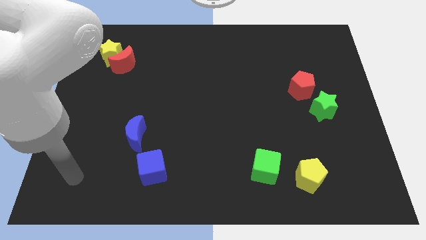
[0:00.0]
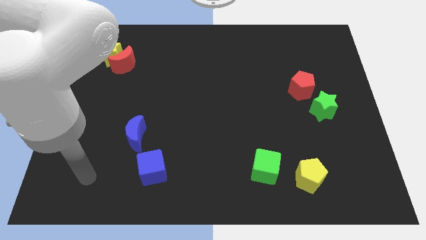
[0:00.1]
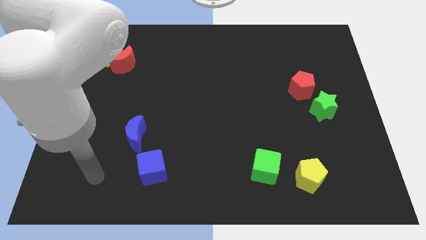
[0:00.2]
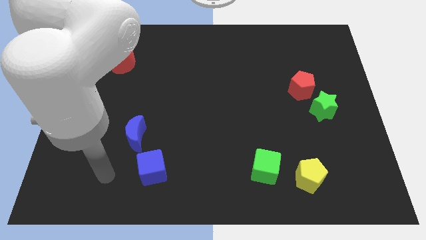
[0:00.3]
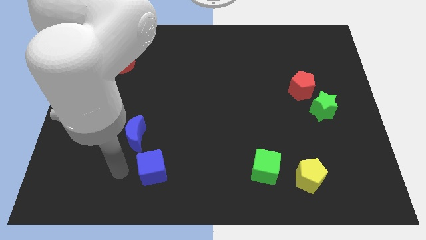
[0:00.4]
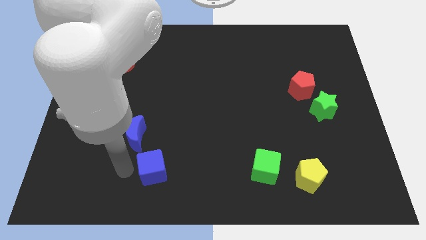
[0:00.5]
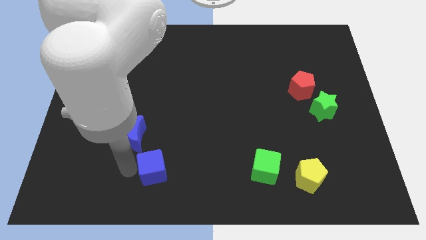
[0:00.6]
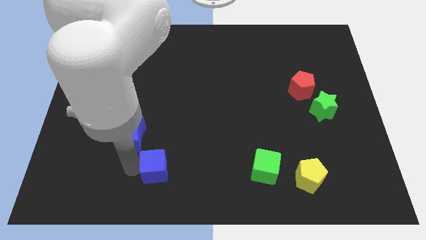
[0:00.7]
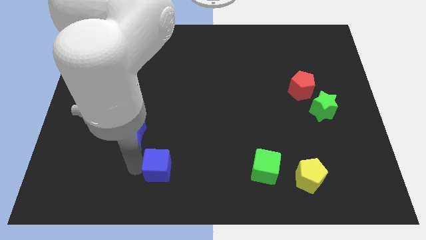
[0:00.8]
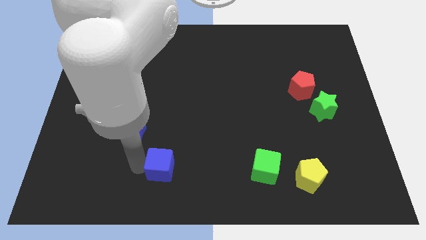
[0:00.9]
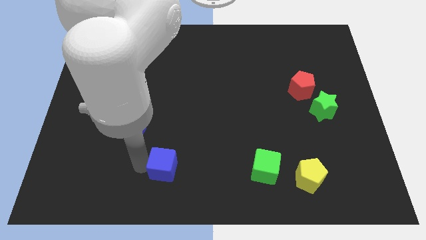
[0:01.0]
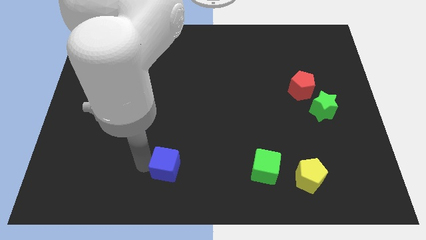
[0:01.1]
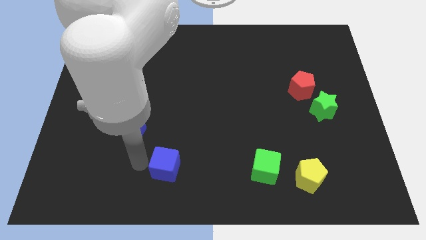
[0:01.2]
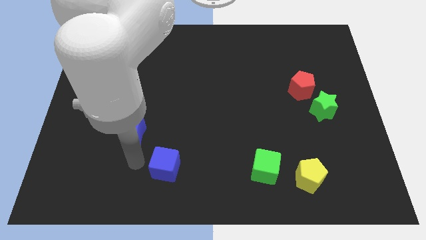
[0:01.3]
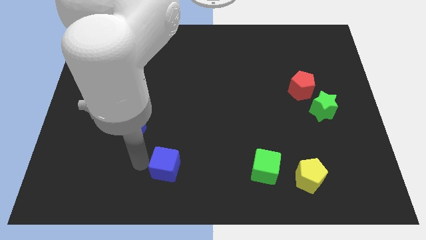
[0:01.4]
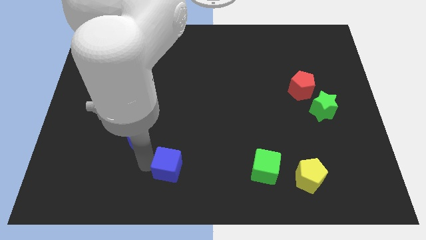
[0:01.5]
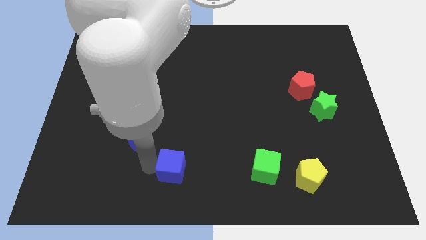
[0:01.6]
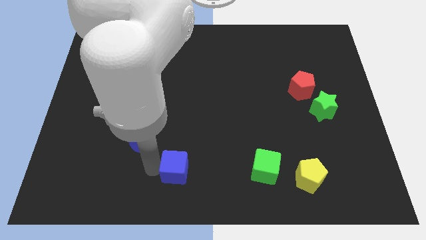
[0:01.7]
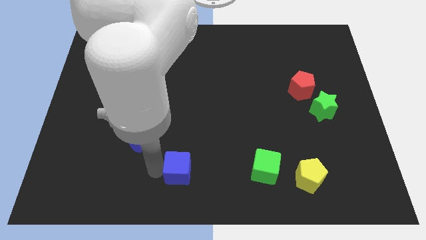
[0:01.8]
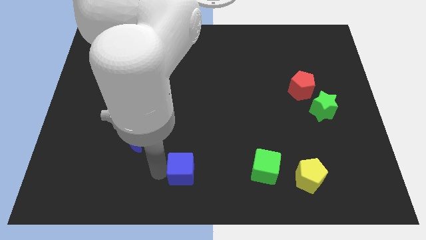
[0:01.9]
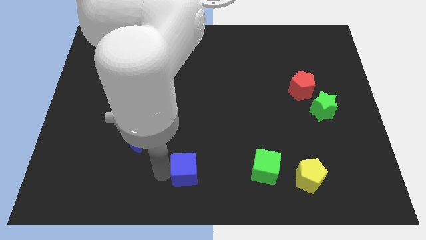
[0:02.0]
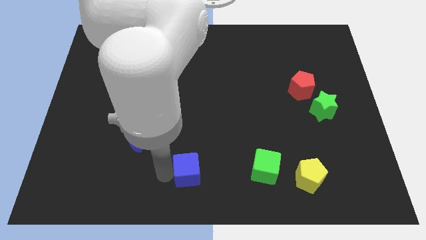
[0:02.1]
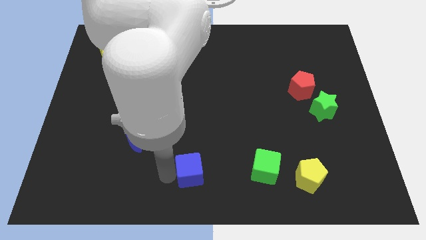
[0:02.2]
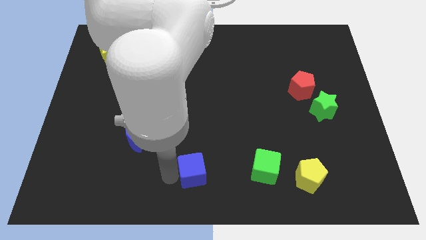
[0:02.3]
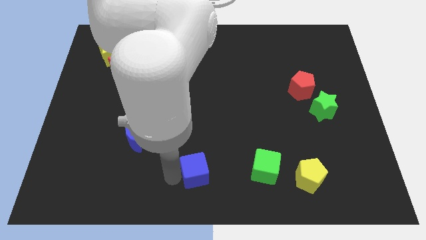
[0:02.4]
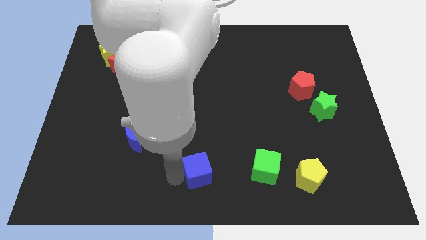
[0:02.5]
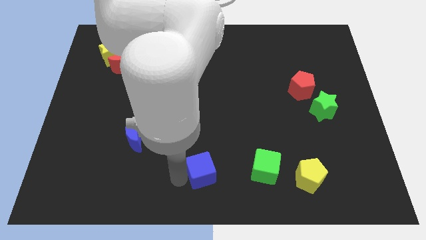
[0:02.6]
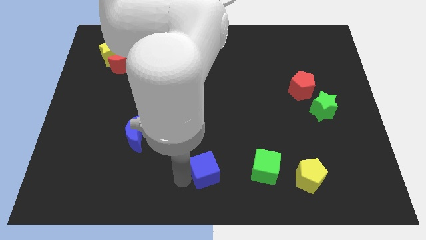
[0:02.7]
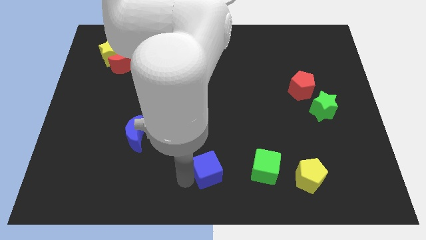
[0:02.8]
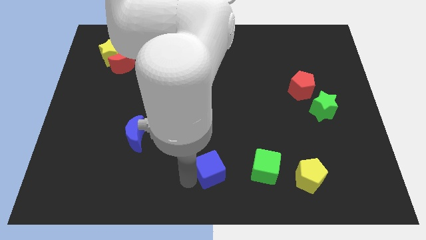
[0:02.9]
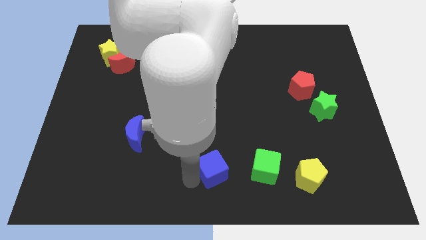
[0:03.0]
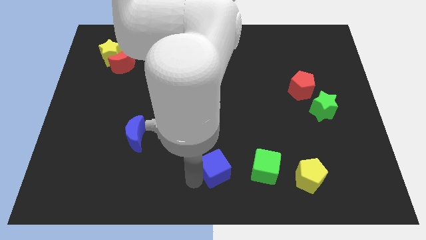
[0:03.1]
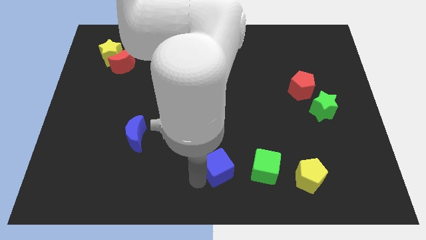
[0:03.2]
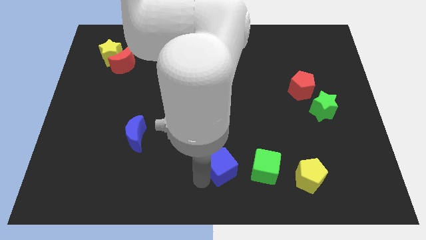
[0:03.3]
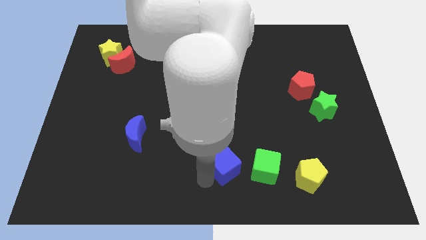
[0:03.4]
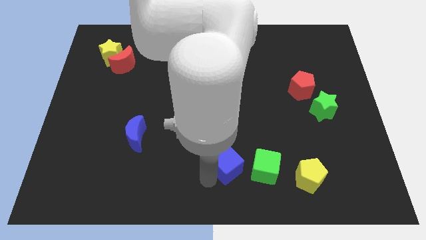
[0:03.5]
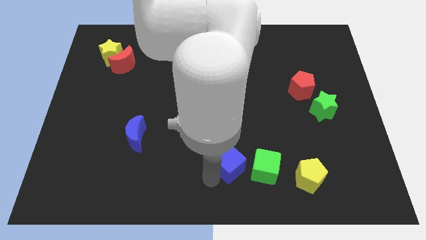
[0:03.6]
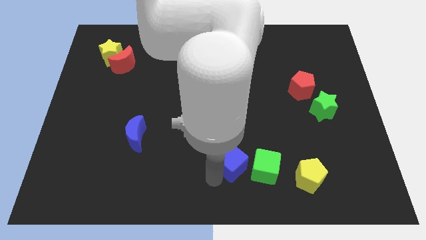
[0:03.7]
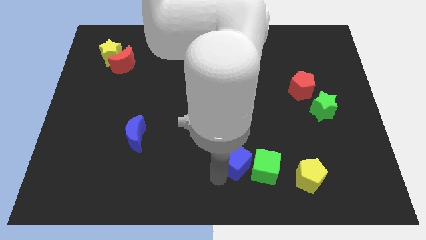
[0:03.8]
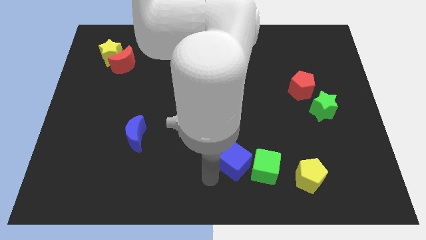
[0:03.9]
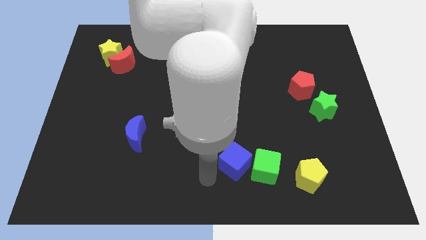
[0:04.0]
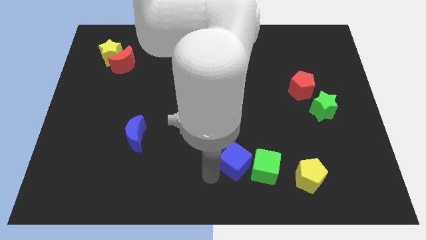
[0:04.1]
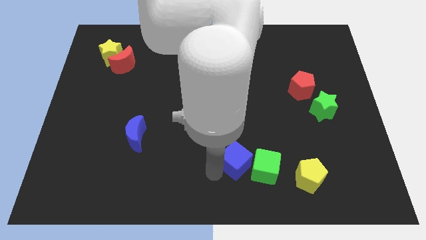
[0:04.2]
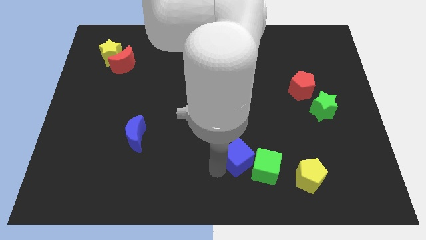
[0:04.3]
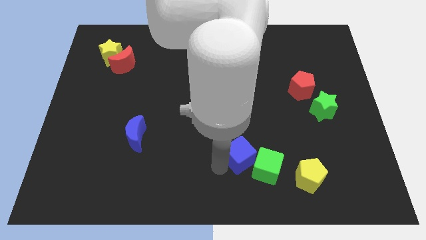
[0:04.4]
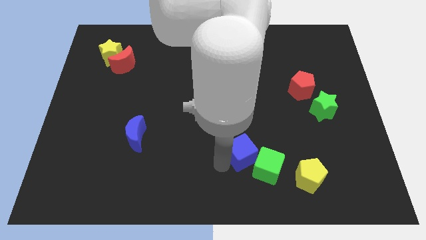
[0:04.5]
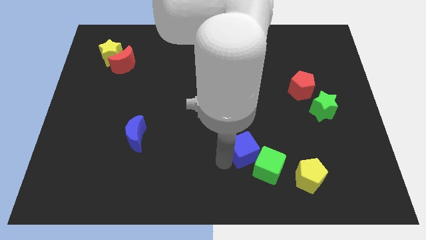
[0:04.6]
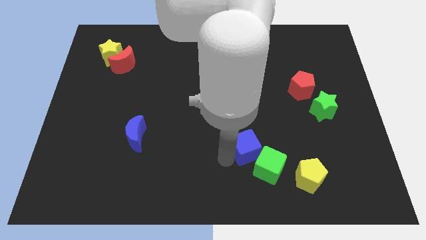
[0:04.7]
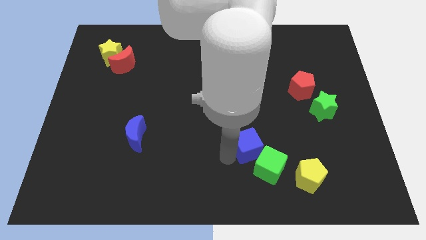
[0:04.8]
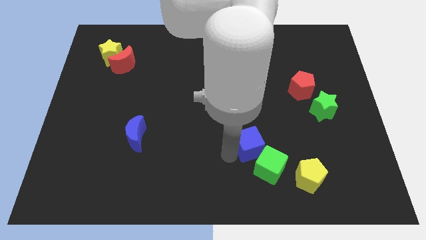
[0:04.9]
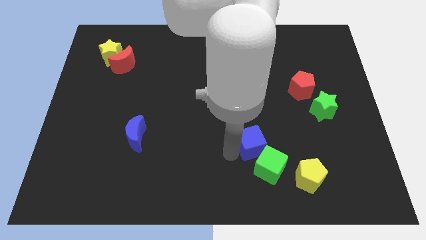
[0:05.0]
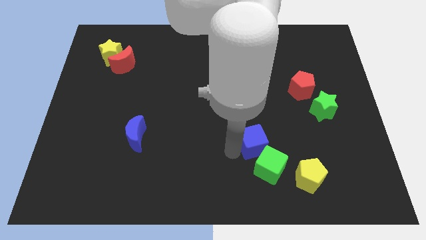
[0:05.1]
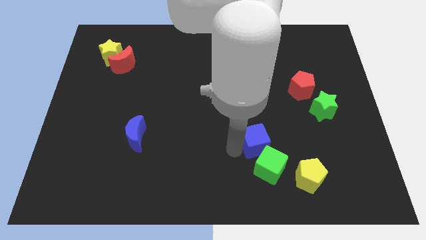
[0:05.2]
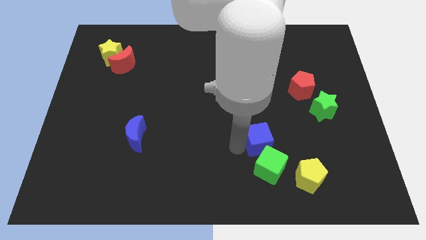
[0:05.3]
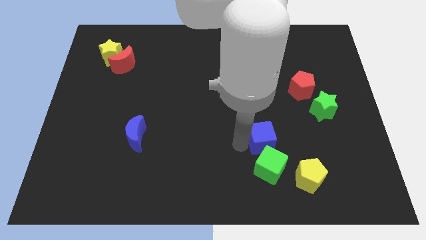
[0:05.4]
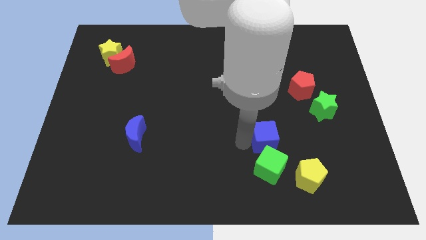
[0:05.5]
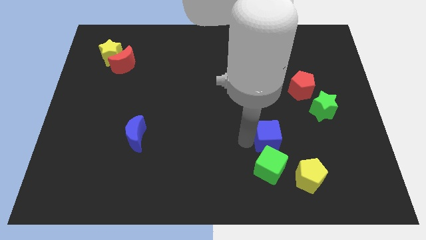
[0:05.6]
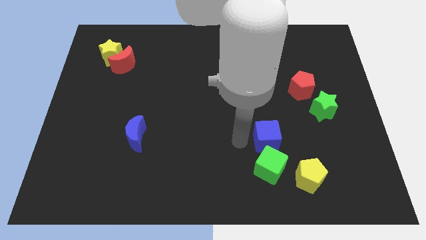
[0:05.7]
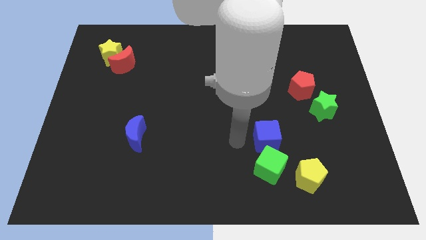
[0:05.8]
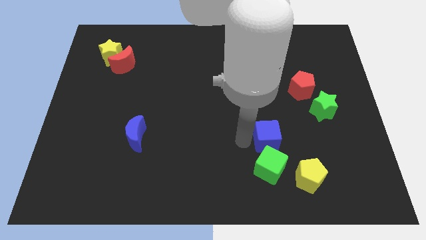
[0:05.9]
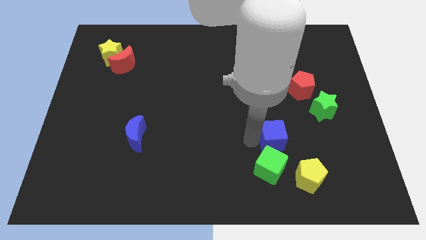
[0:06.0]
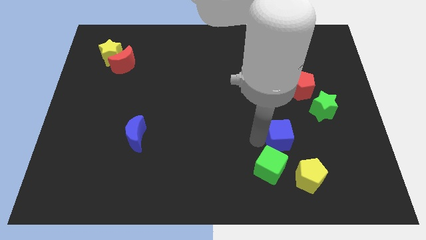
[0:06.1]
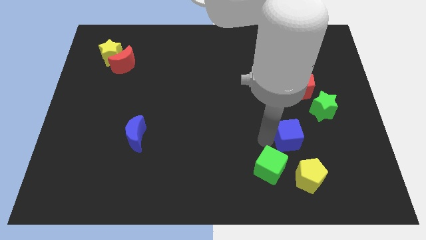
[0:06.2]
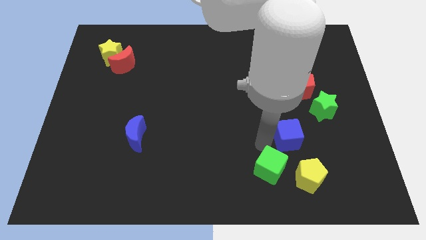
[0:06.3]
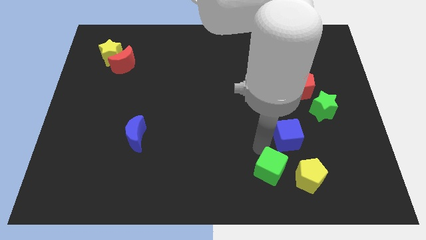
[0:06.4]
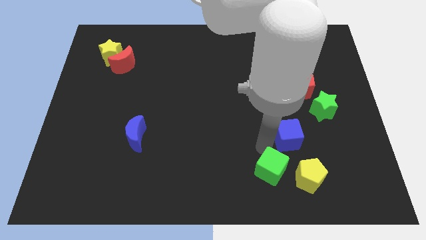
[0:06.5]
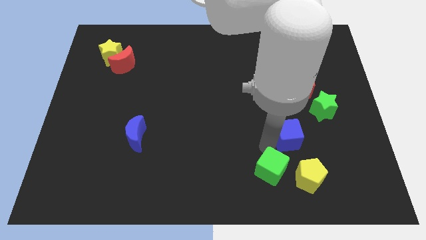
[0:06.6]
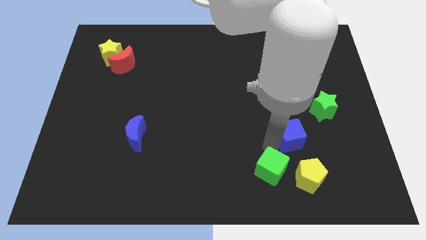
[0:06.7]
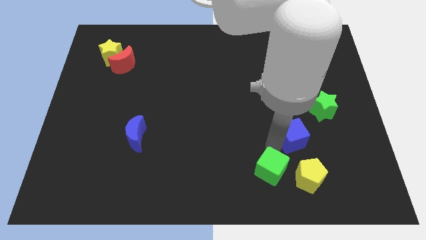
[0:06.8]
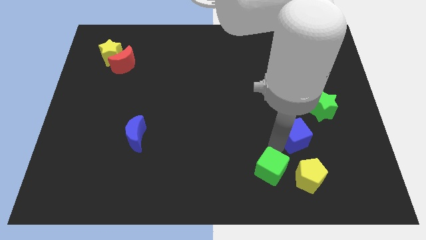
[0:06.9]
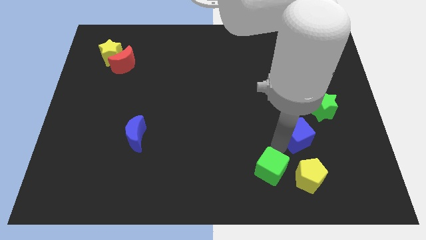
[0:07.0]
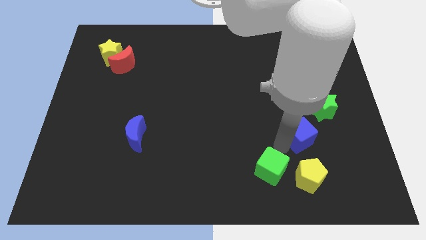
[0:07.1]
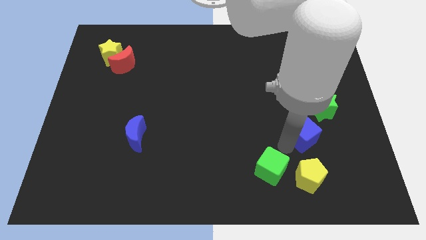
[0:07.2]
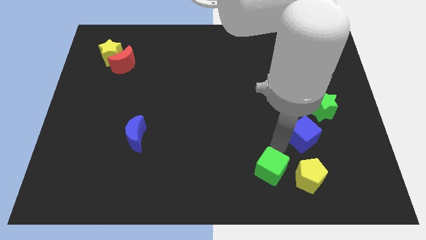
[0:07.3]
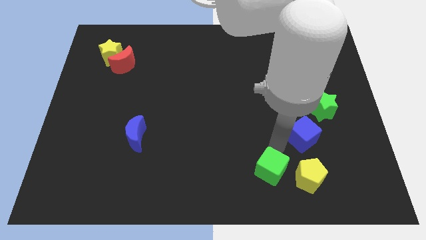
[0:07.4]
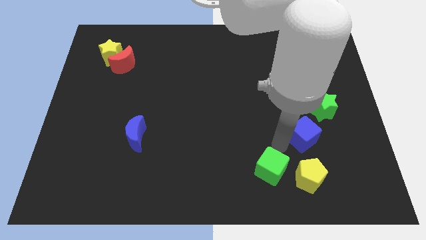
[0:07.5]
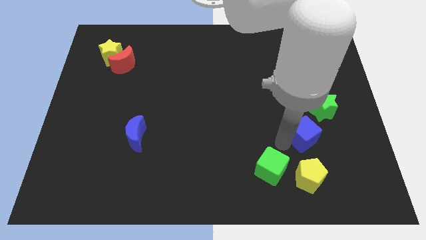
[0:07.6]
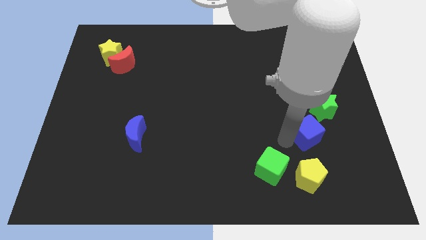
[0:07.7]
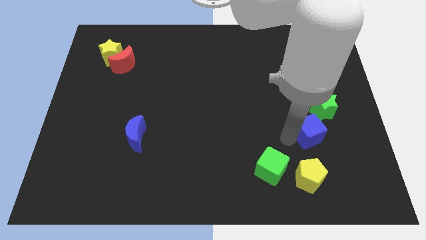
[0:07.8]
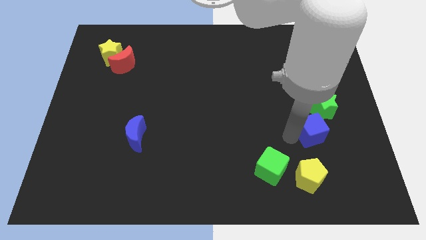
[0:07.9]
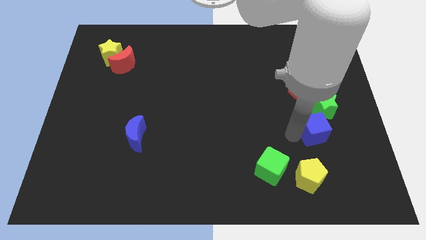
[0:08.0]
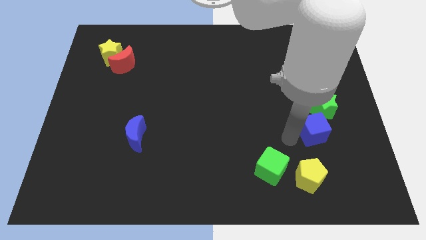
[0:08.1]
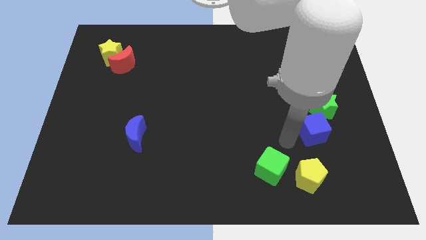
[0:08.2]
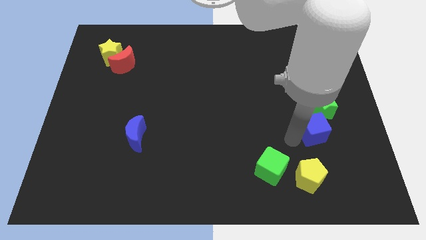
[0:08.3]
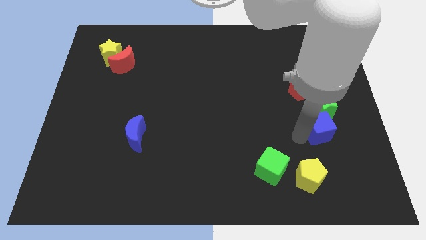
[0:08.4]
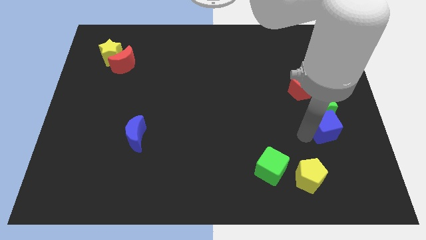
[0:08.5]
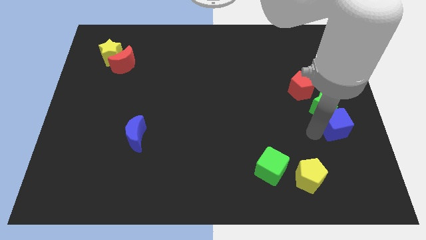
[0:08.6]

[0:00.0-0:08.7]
move the blue cube to the center right
